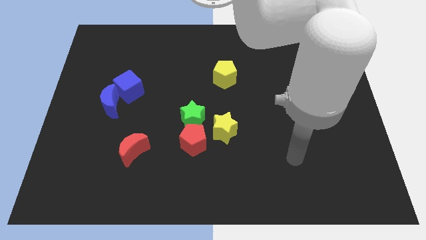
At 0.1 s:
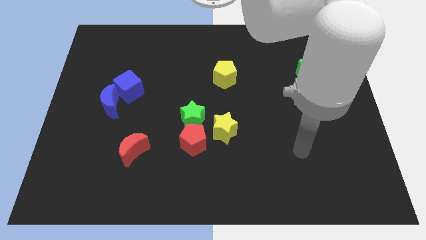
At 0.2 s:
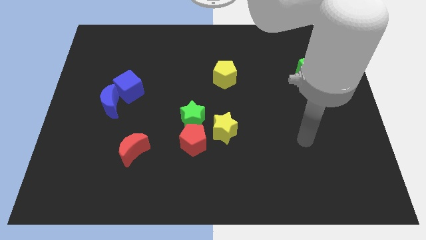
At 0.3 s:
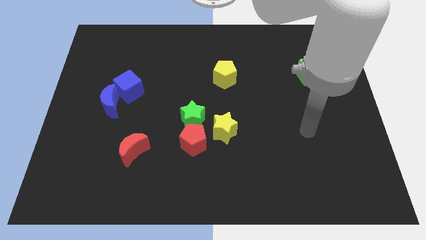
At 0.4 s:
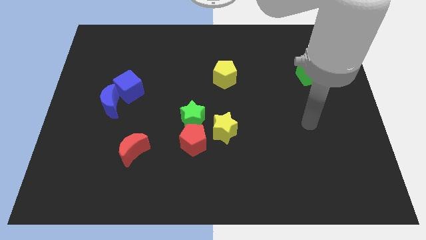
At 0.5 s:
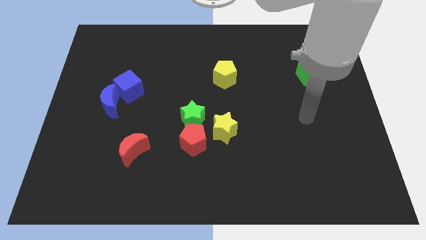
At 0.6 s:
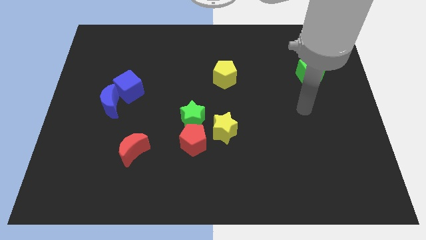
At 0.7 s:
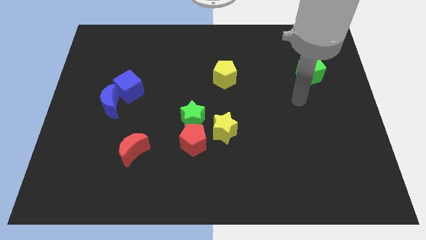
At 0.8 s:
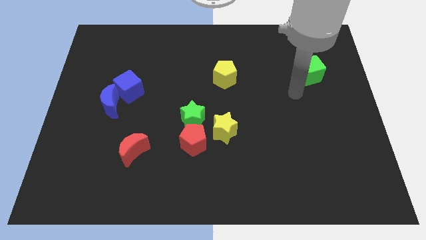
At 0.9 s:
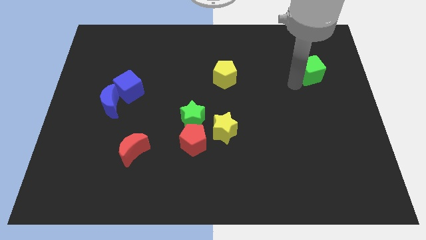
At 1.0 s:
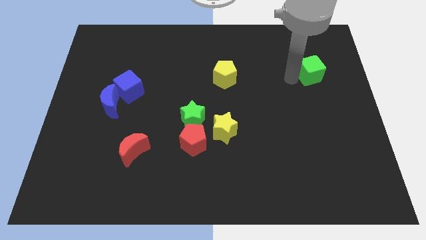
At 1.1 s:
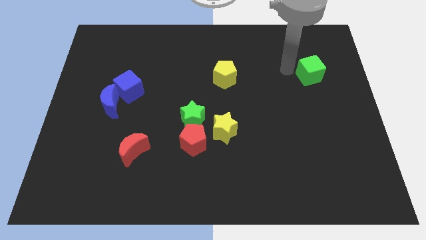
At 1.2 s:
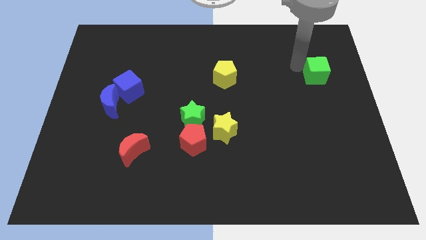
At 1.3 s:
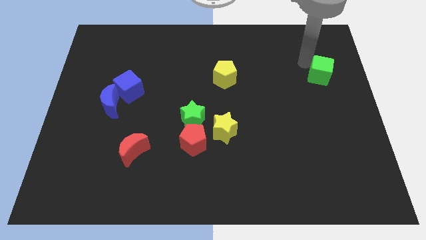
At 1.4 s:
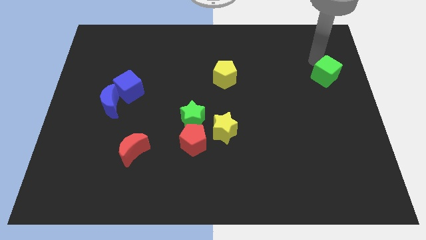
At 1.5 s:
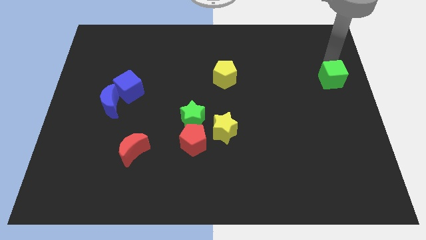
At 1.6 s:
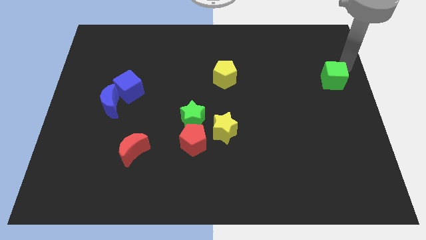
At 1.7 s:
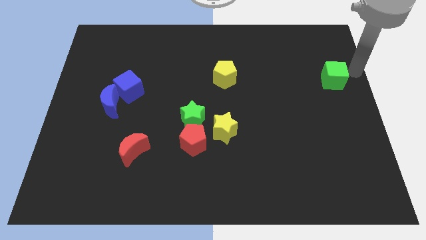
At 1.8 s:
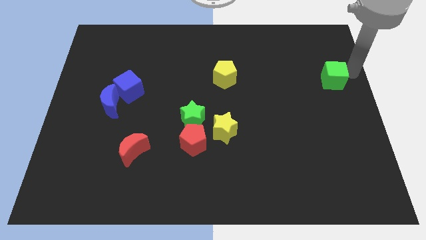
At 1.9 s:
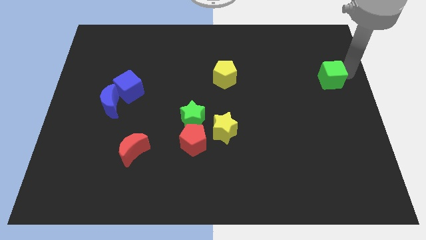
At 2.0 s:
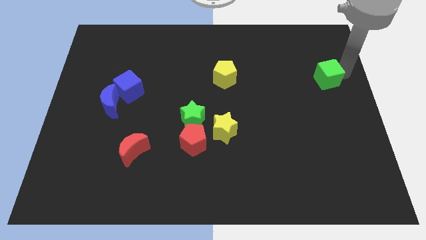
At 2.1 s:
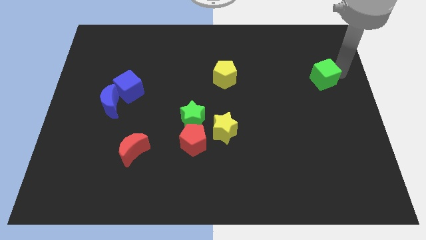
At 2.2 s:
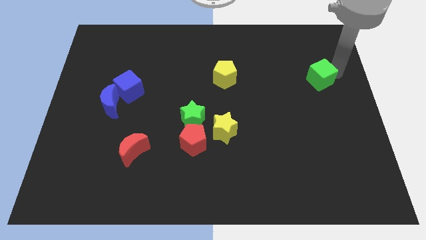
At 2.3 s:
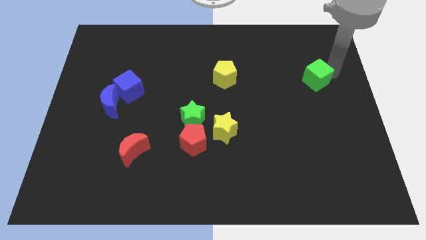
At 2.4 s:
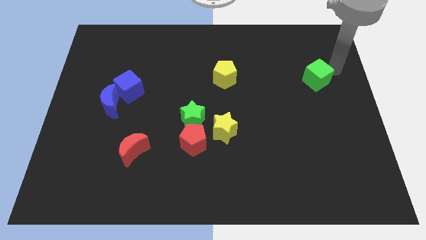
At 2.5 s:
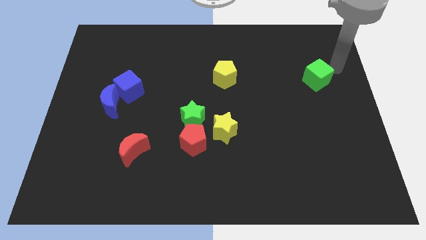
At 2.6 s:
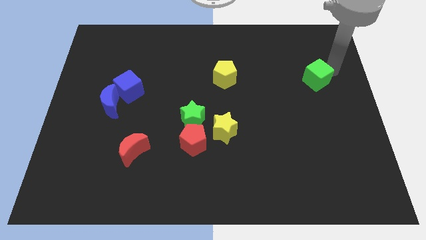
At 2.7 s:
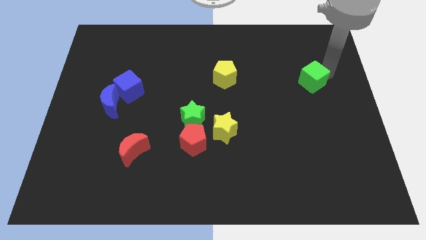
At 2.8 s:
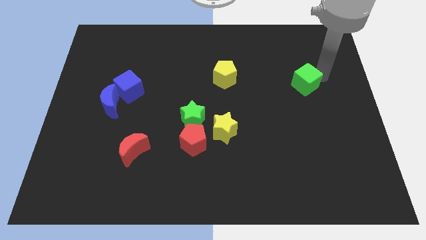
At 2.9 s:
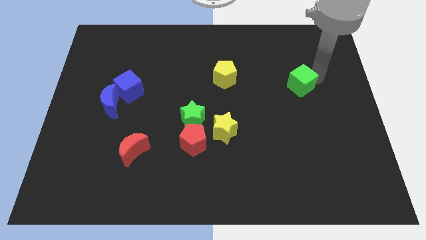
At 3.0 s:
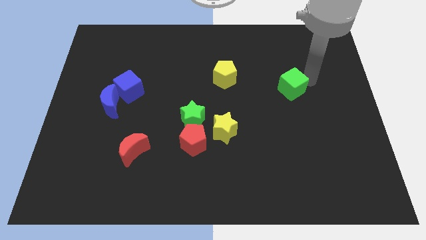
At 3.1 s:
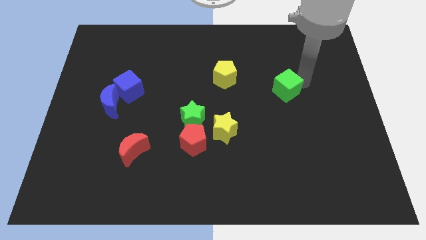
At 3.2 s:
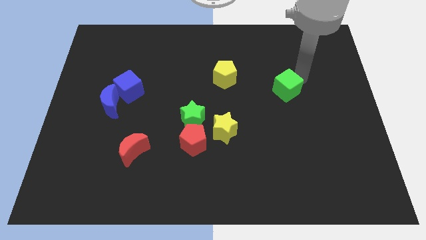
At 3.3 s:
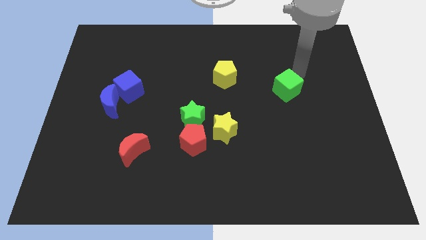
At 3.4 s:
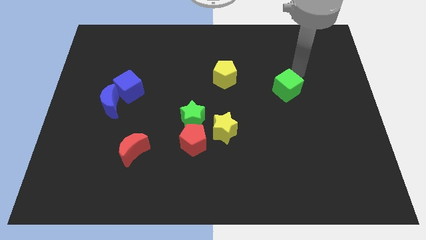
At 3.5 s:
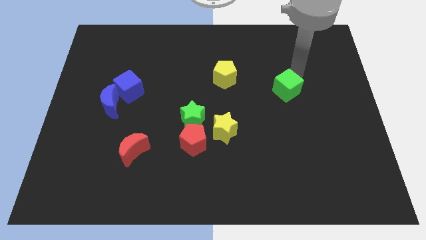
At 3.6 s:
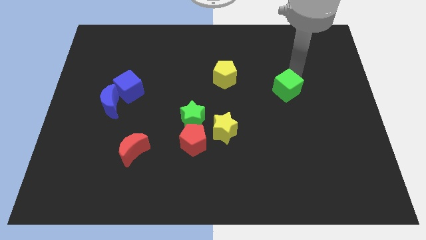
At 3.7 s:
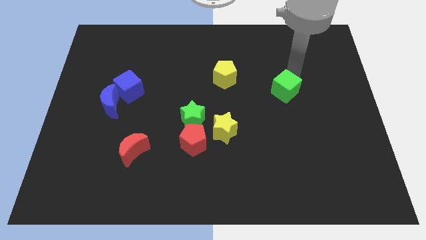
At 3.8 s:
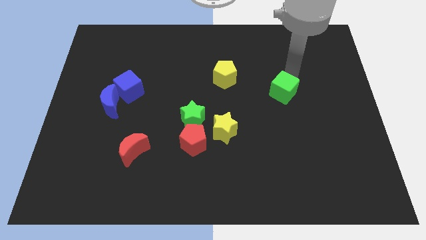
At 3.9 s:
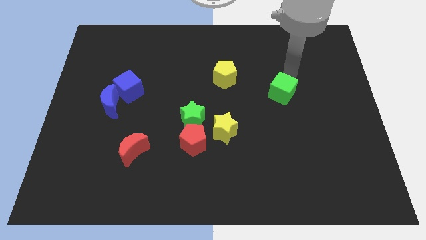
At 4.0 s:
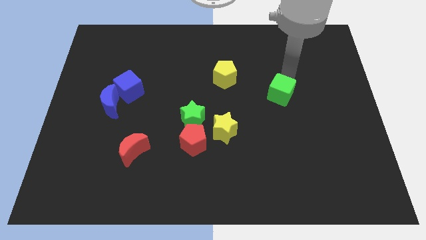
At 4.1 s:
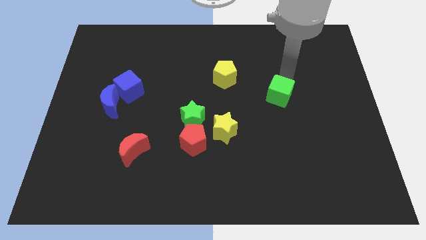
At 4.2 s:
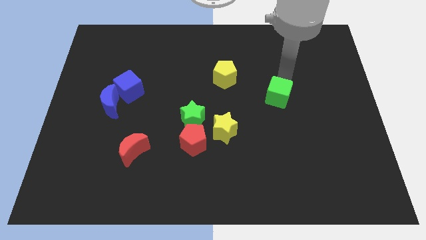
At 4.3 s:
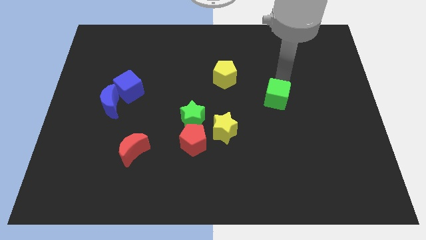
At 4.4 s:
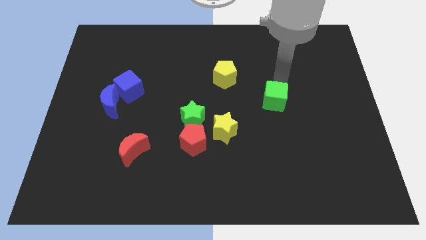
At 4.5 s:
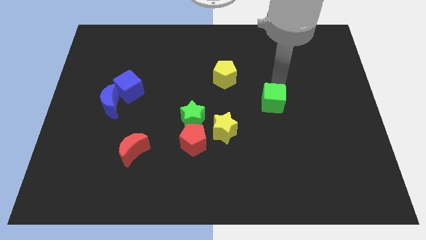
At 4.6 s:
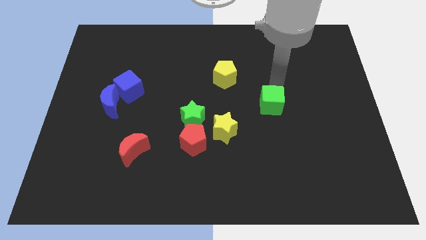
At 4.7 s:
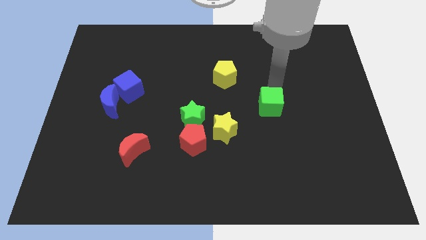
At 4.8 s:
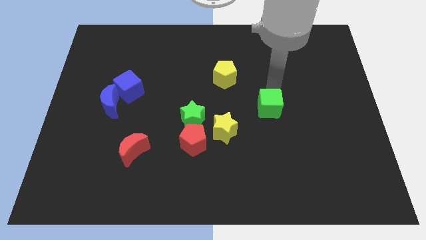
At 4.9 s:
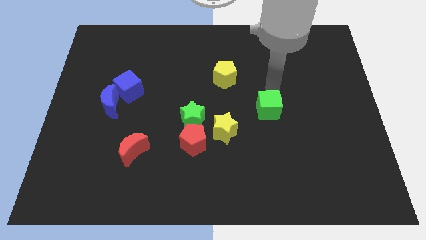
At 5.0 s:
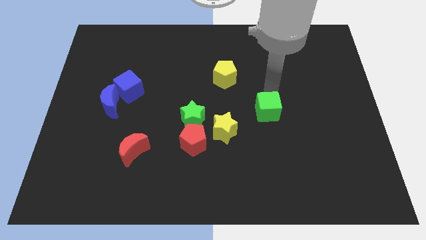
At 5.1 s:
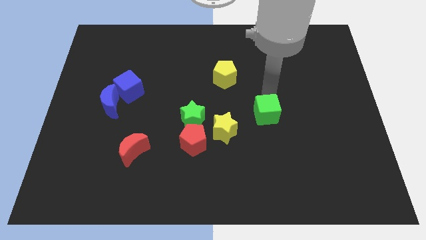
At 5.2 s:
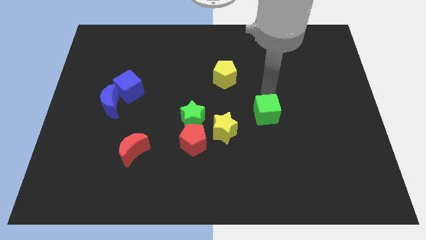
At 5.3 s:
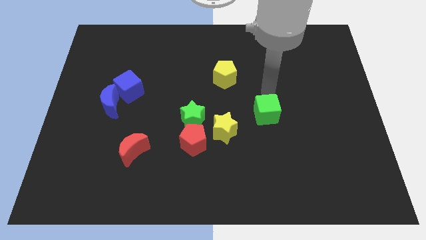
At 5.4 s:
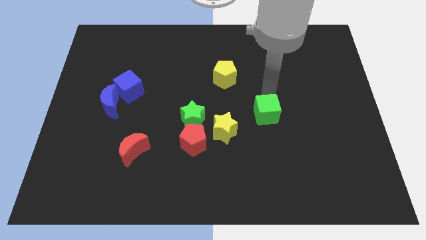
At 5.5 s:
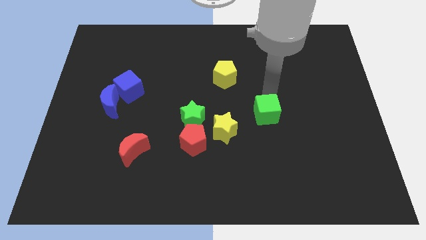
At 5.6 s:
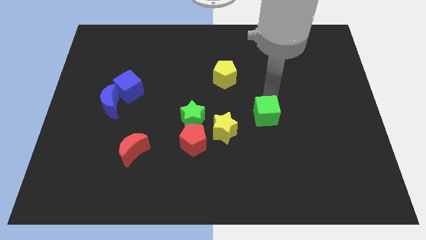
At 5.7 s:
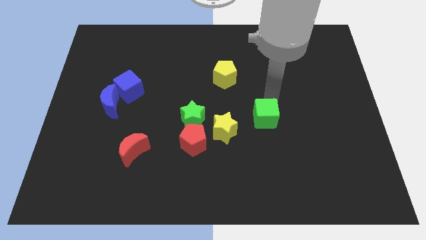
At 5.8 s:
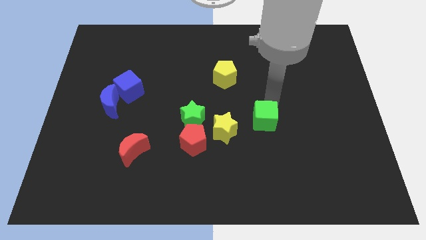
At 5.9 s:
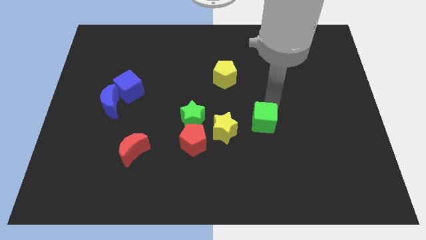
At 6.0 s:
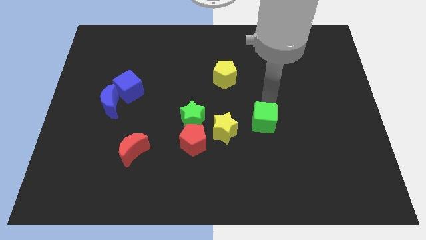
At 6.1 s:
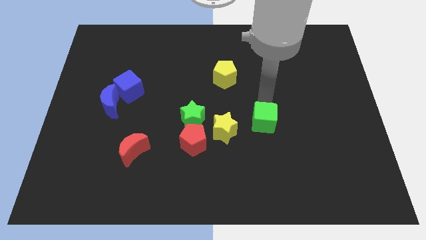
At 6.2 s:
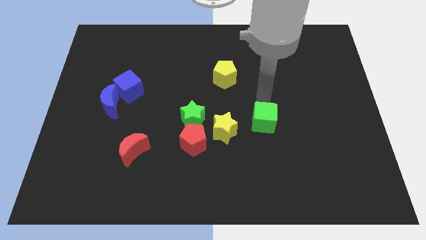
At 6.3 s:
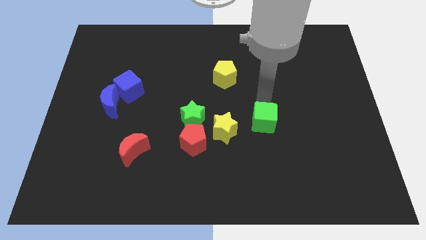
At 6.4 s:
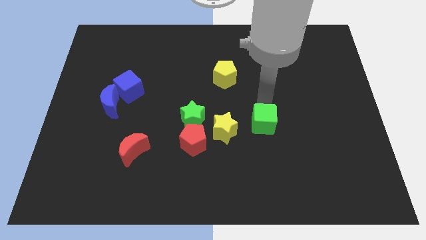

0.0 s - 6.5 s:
move the green cube down and left diagonally

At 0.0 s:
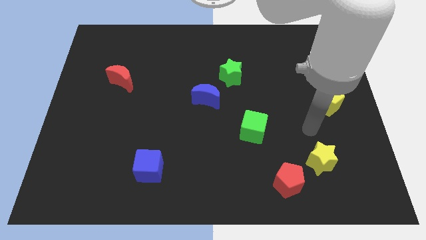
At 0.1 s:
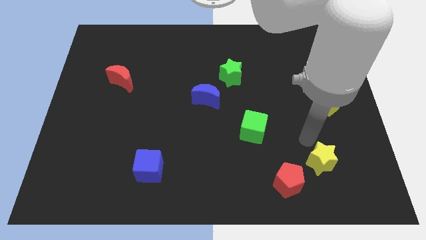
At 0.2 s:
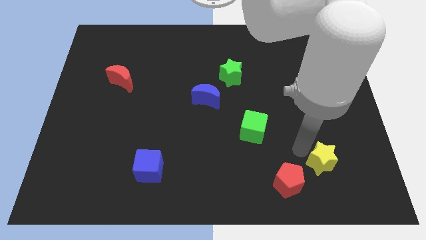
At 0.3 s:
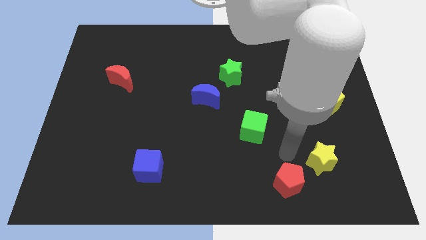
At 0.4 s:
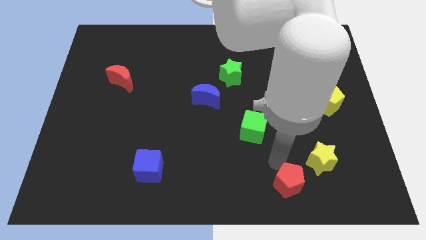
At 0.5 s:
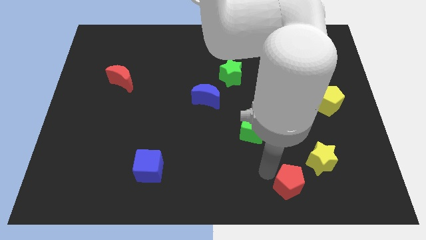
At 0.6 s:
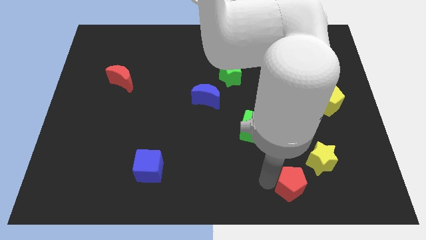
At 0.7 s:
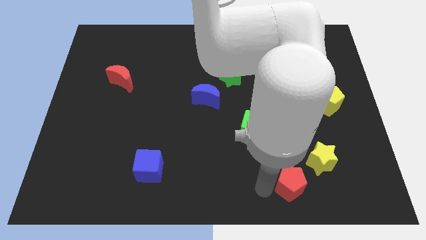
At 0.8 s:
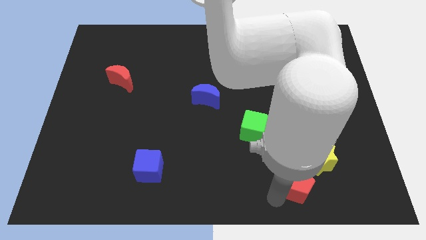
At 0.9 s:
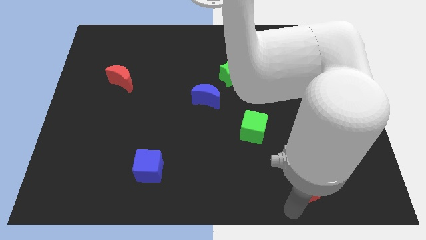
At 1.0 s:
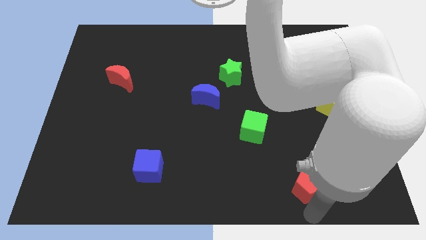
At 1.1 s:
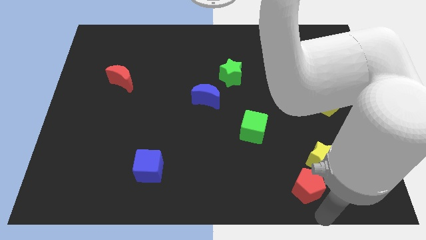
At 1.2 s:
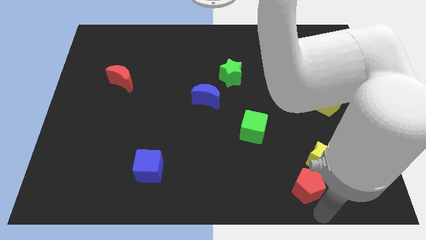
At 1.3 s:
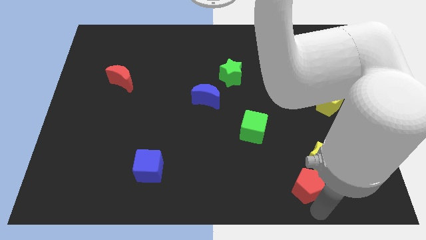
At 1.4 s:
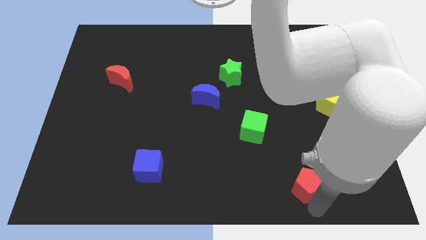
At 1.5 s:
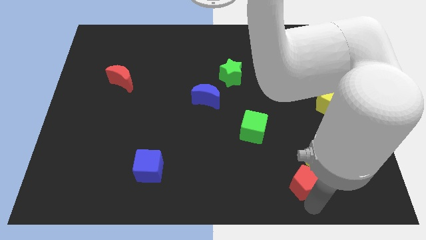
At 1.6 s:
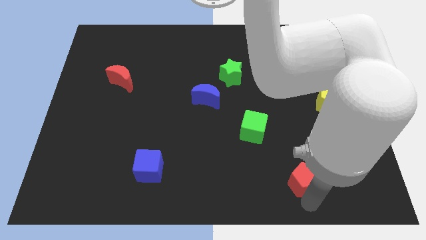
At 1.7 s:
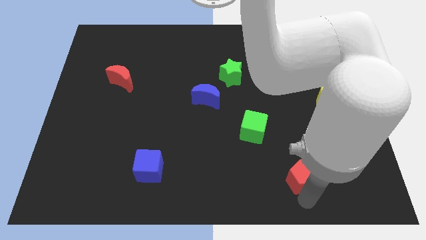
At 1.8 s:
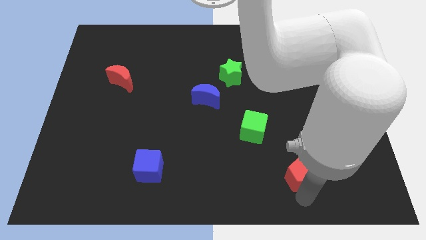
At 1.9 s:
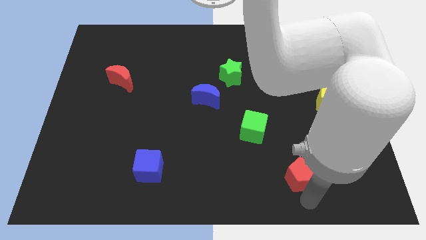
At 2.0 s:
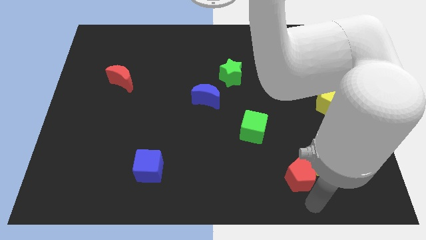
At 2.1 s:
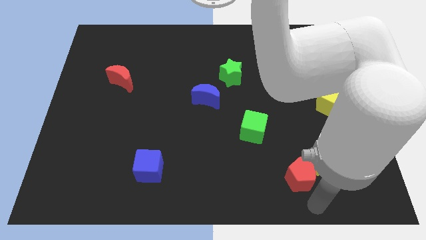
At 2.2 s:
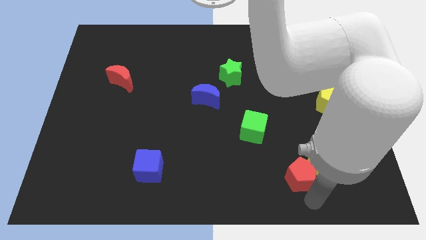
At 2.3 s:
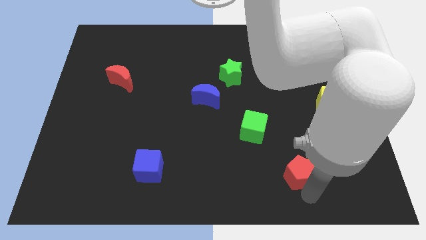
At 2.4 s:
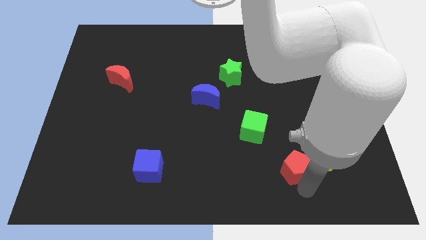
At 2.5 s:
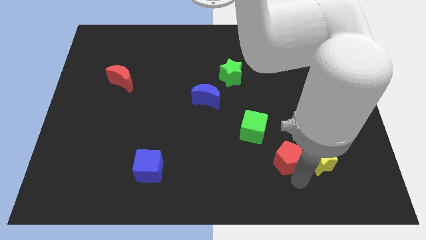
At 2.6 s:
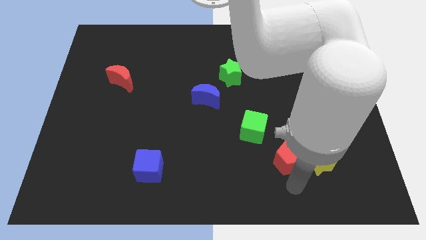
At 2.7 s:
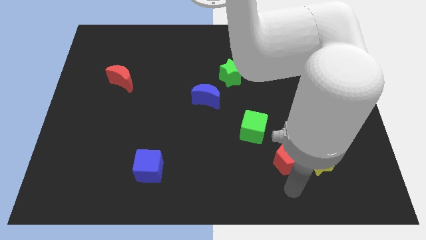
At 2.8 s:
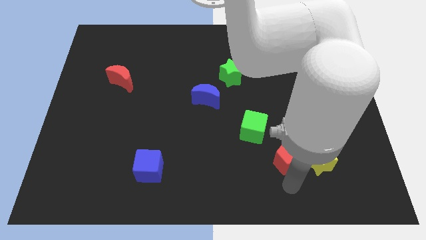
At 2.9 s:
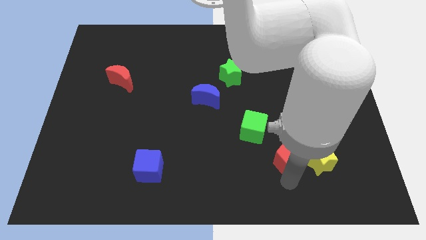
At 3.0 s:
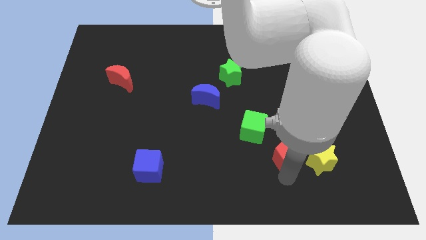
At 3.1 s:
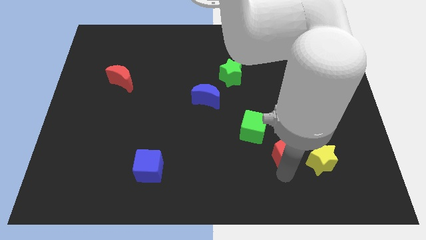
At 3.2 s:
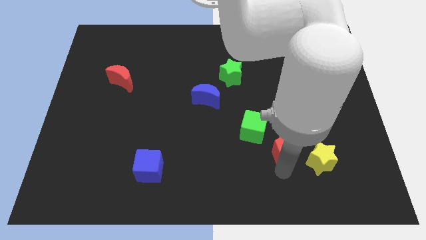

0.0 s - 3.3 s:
slightly slide the red pentagon up
